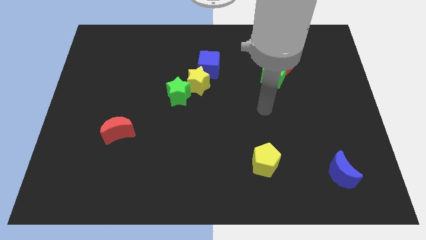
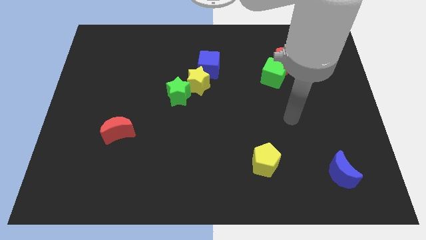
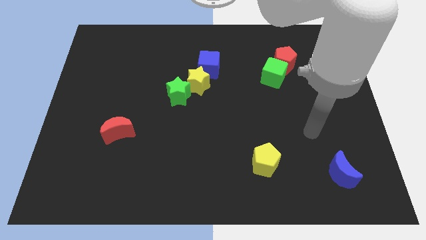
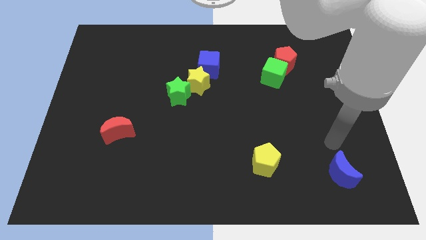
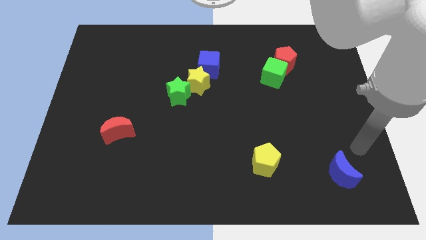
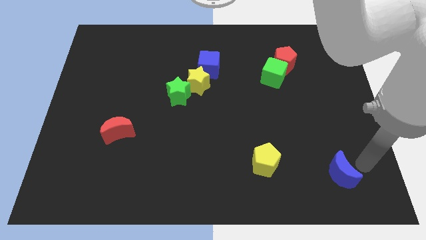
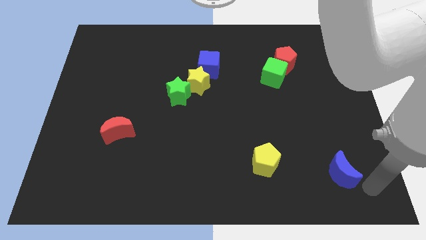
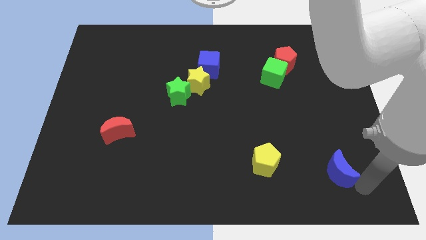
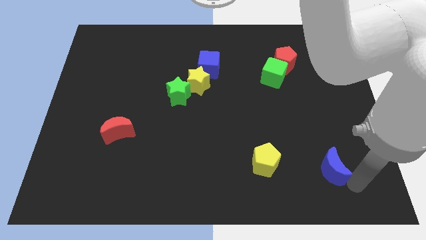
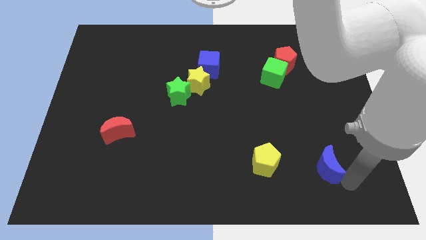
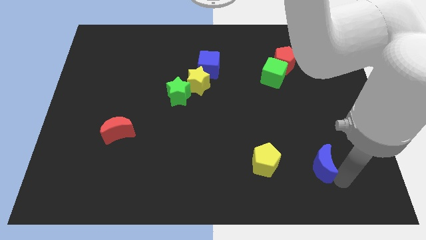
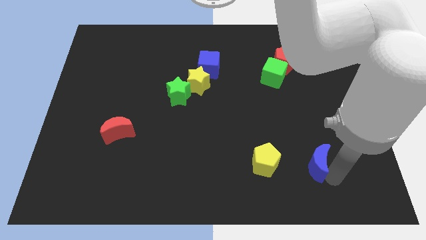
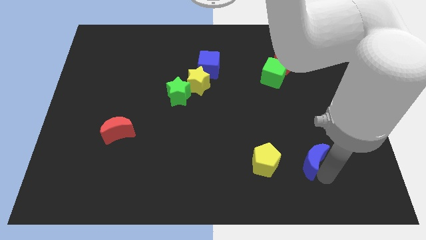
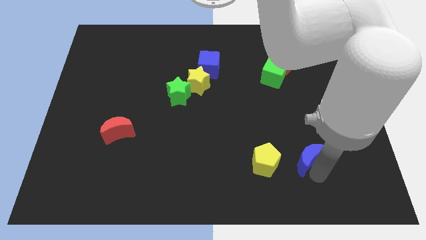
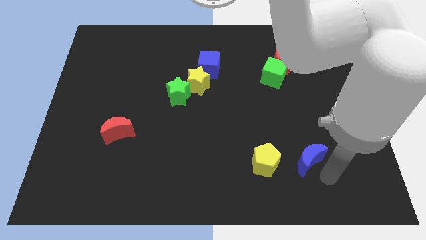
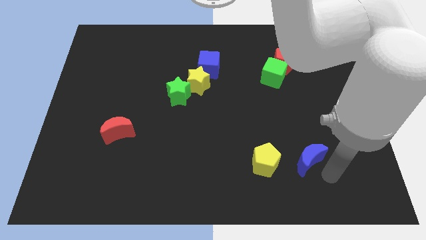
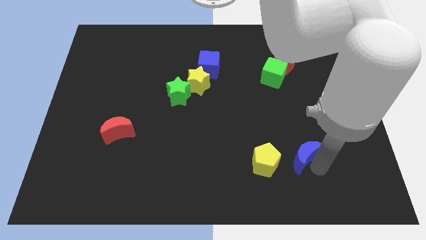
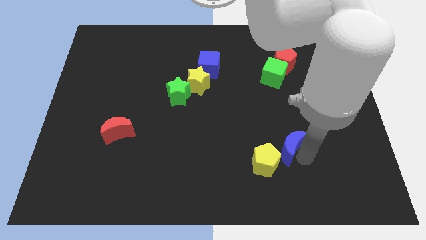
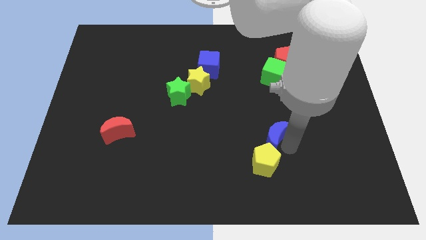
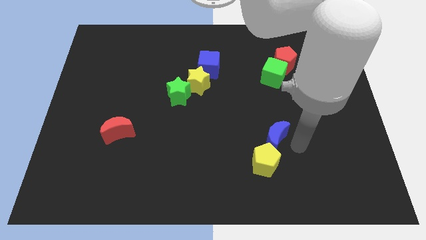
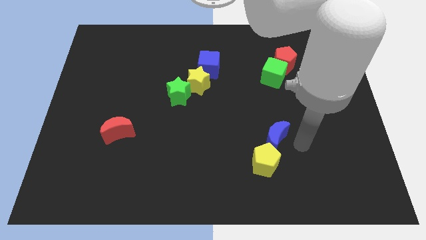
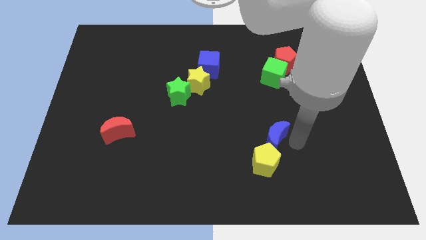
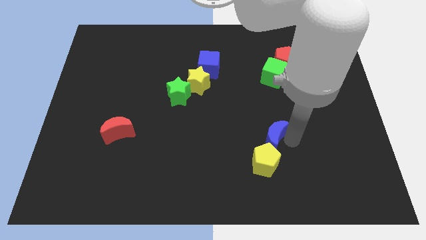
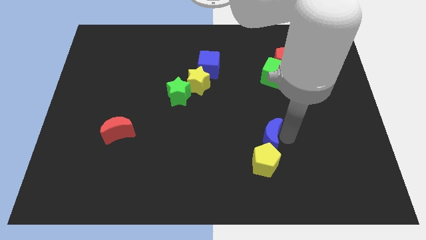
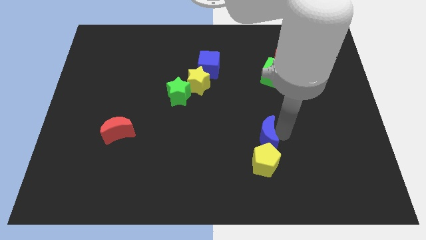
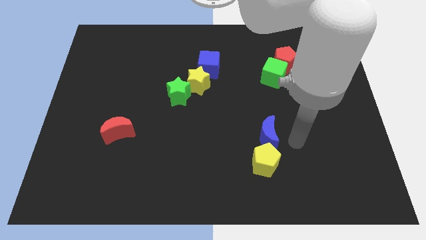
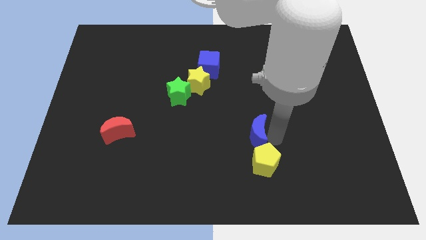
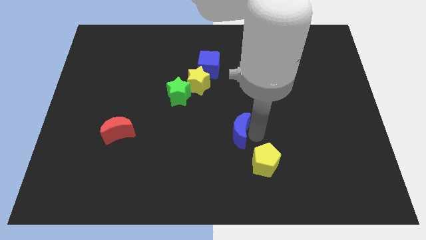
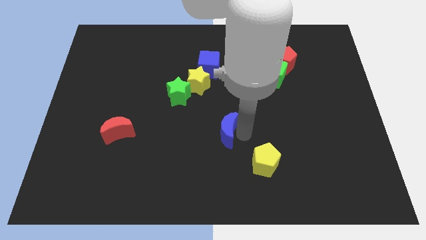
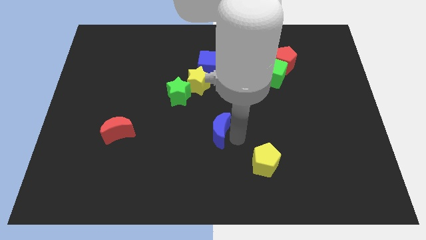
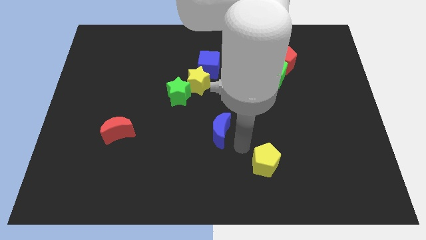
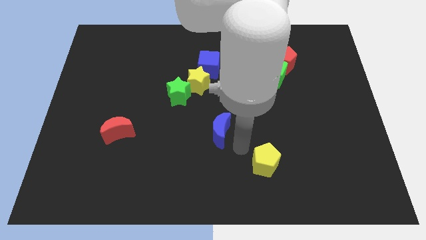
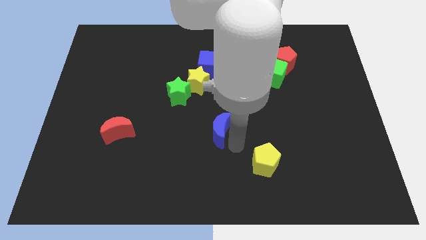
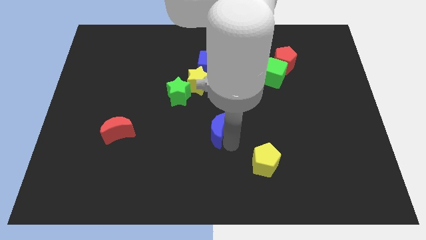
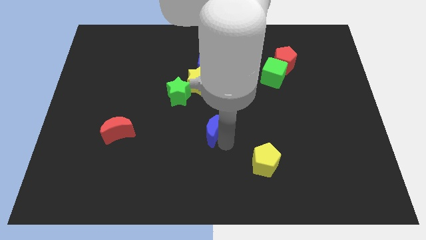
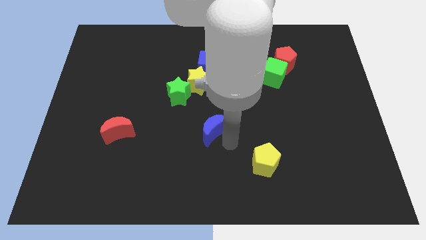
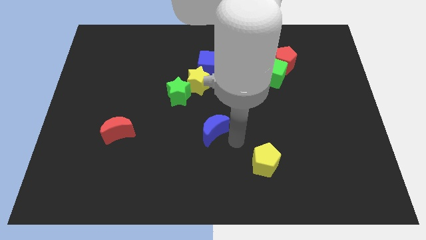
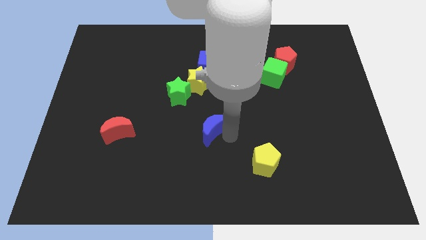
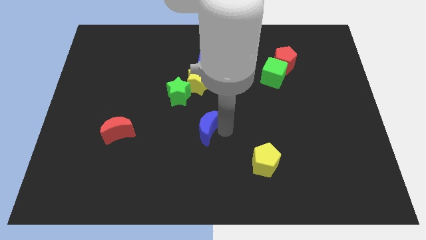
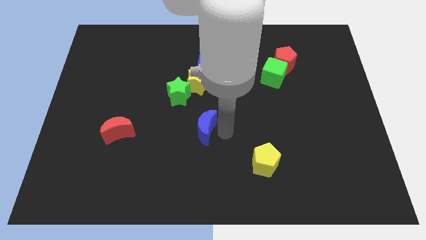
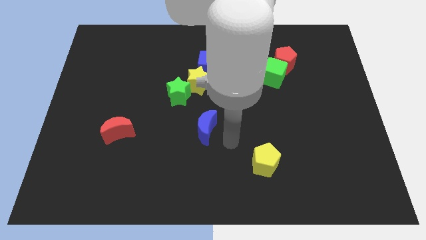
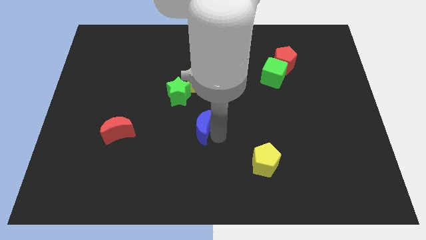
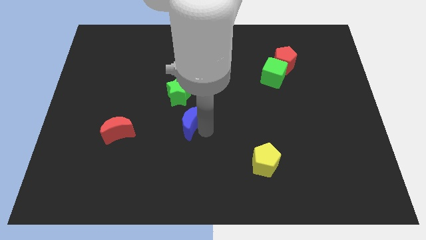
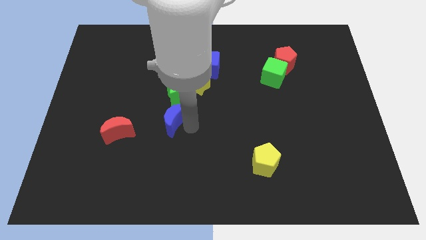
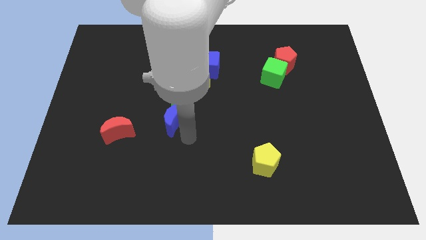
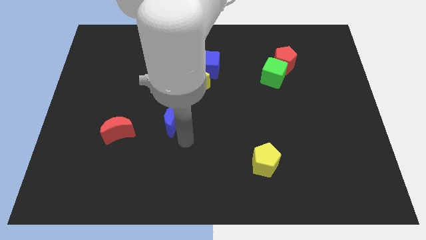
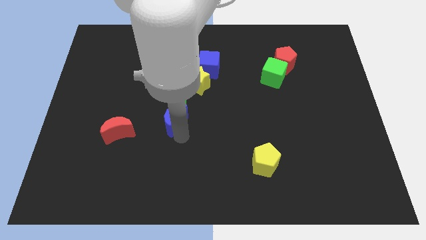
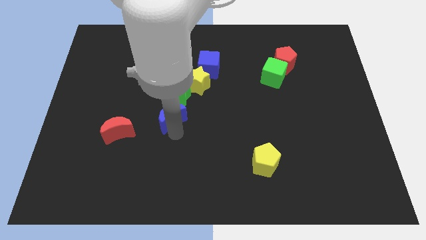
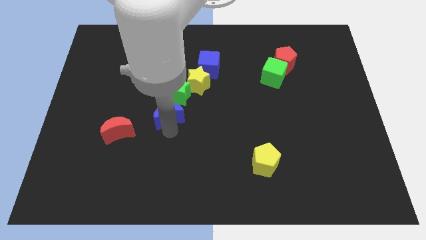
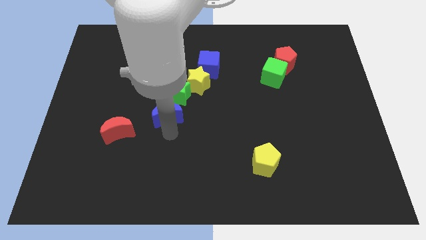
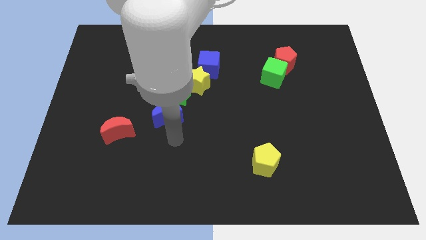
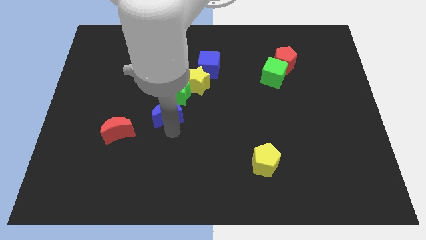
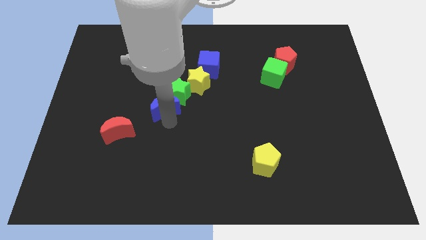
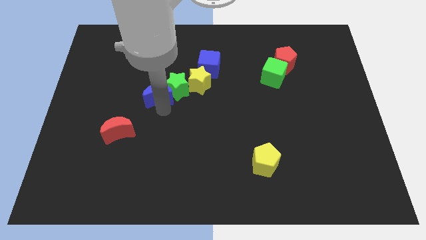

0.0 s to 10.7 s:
move the blue moon left of the yellow star

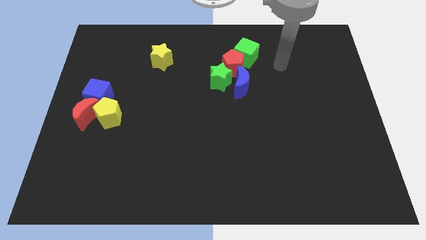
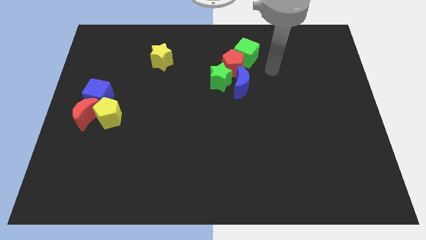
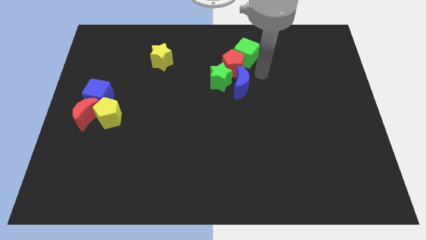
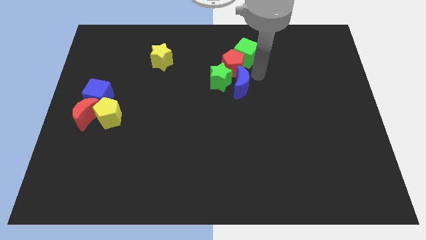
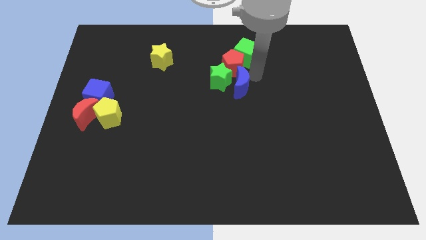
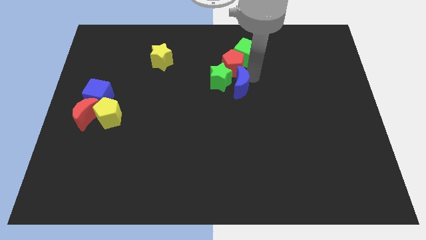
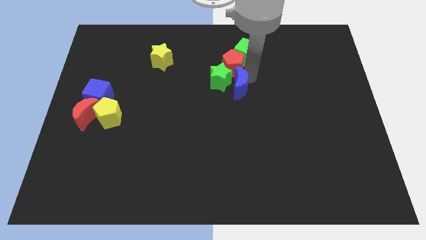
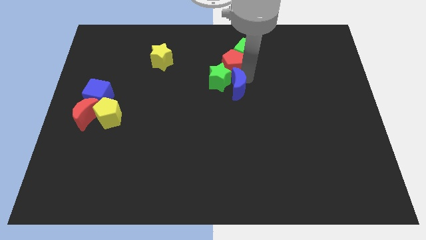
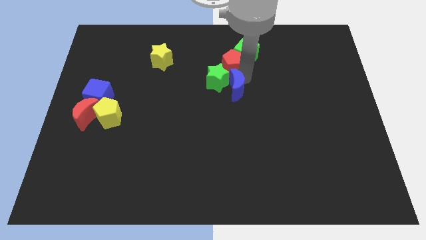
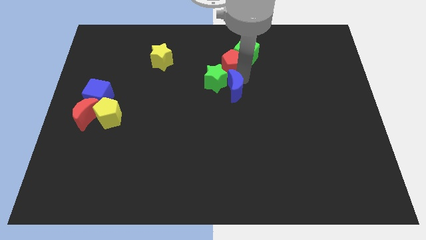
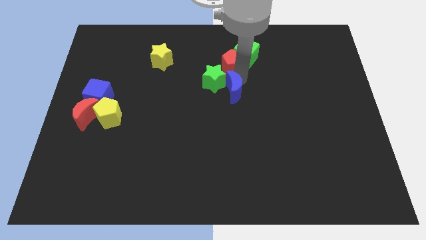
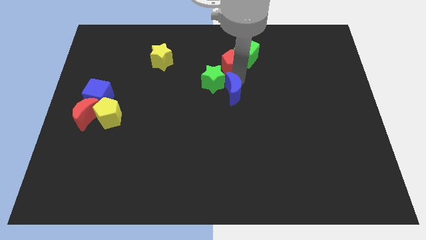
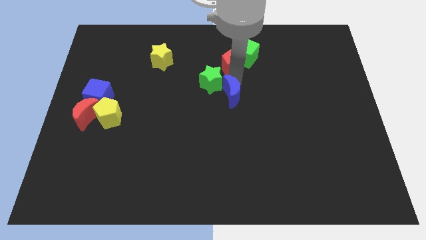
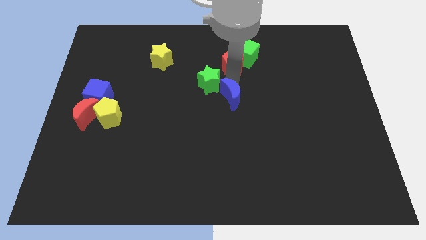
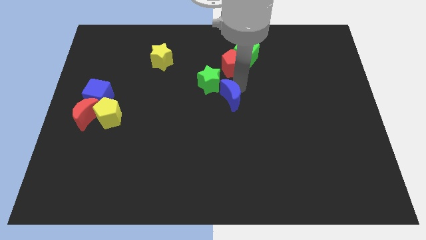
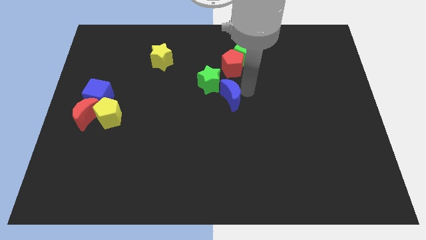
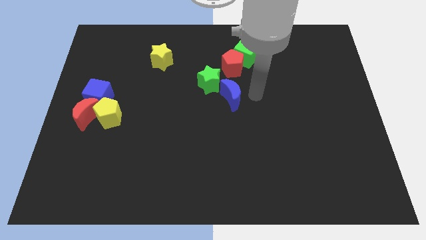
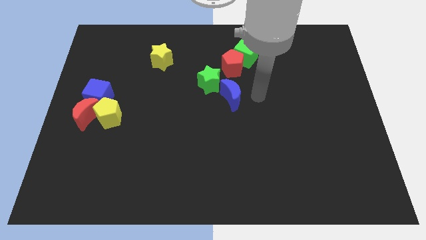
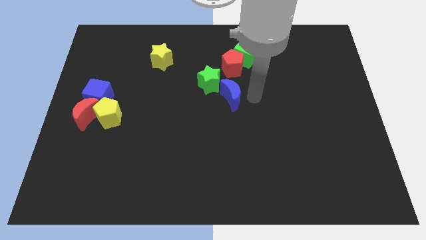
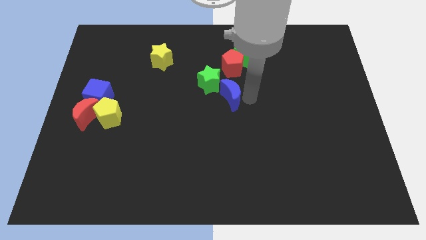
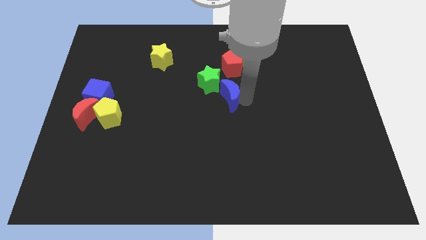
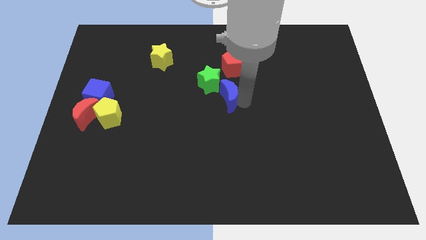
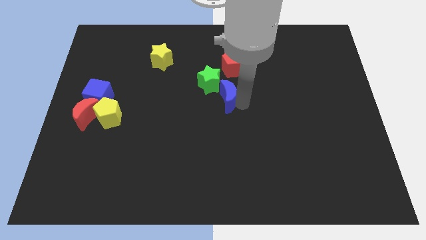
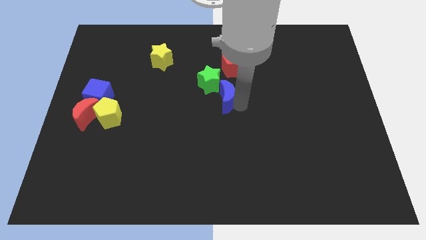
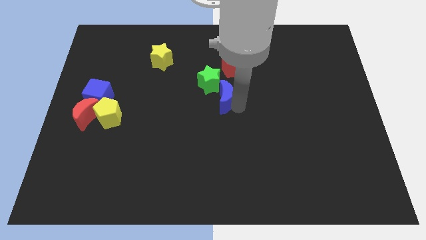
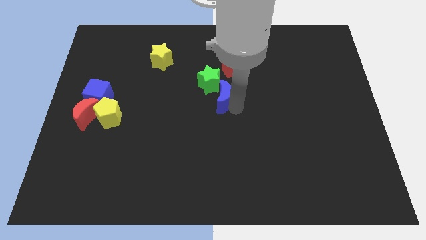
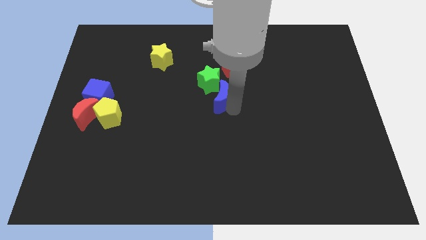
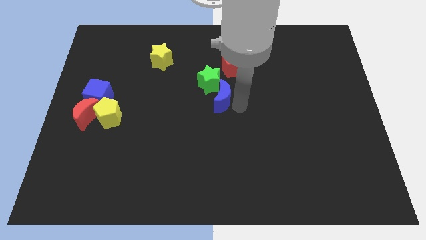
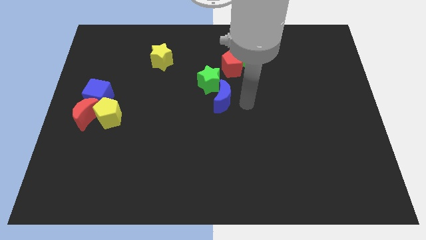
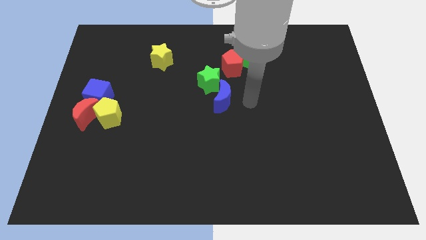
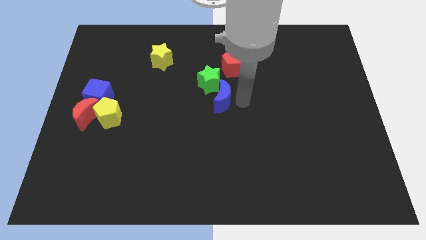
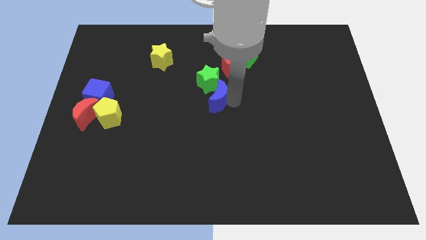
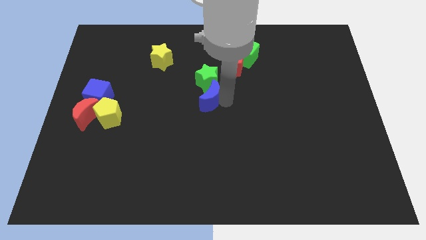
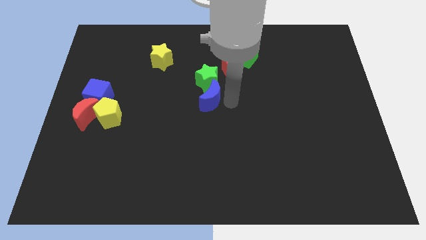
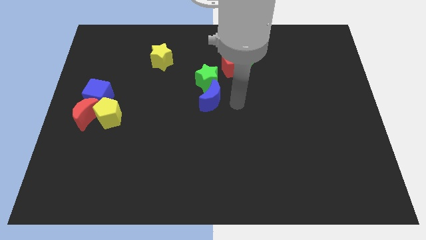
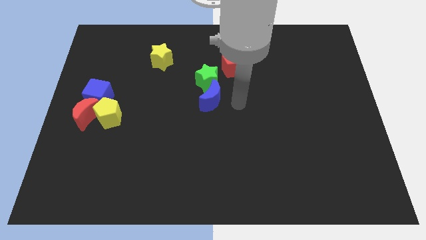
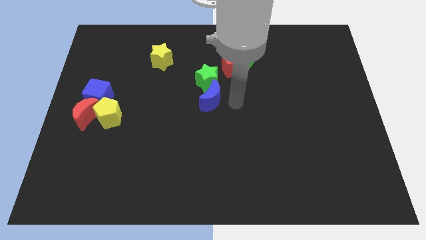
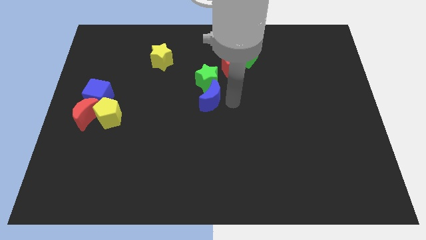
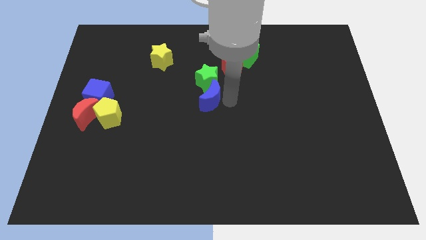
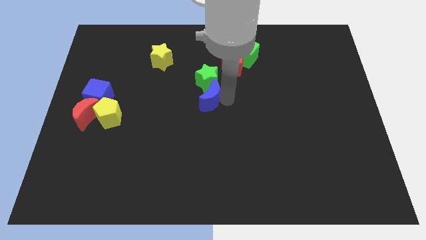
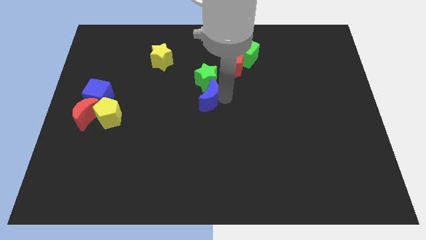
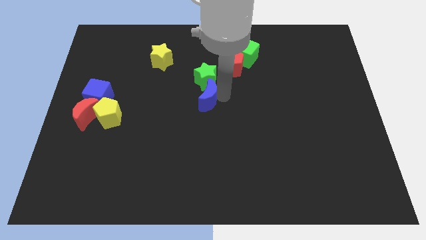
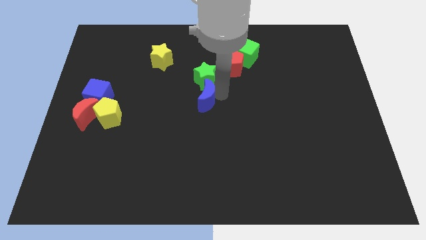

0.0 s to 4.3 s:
move the blue moon to the bottom left of the green star
